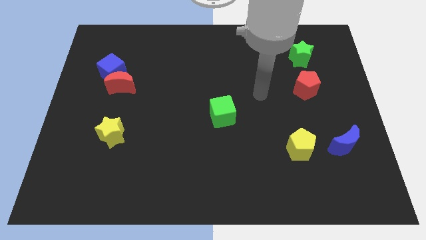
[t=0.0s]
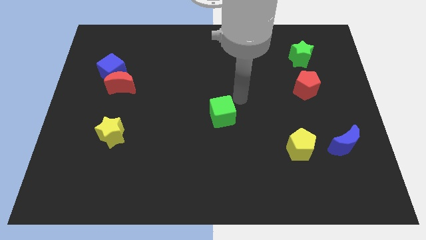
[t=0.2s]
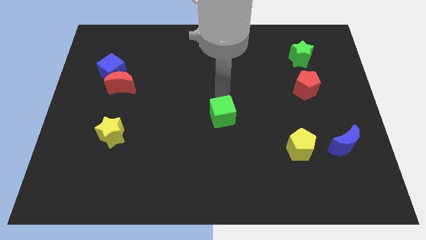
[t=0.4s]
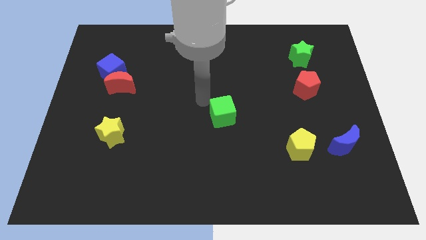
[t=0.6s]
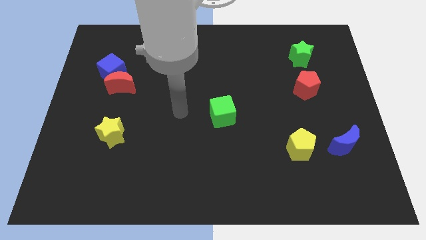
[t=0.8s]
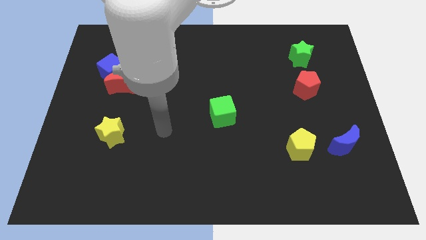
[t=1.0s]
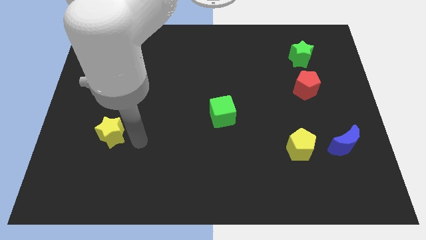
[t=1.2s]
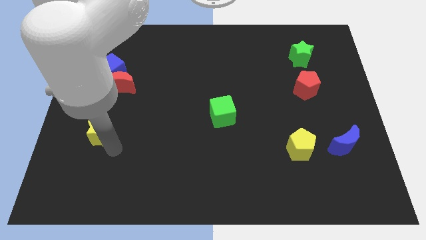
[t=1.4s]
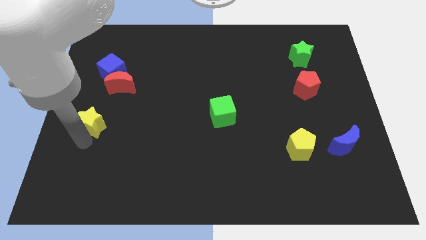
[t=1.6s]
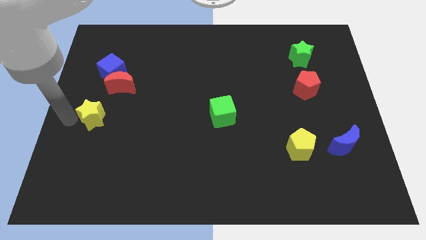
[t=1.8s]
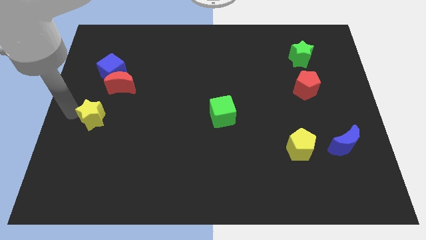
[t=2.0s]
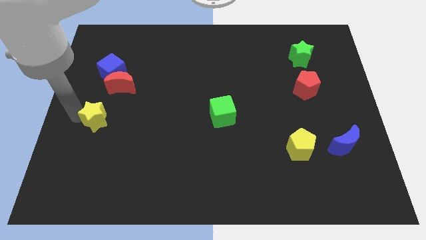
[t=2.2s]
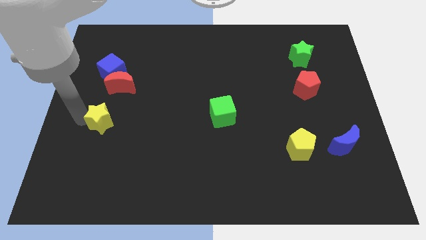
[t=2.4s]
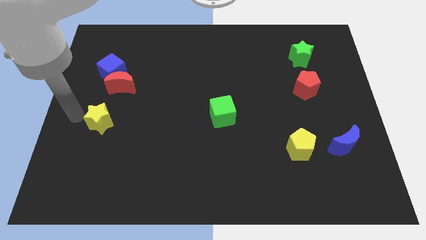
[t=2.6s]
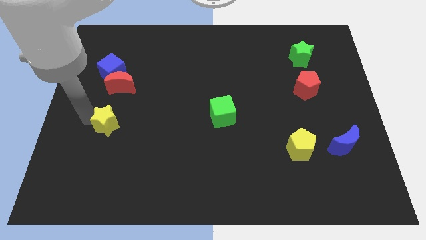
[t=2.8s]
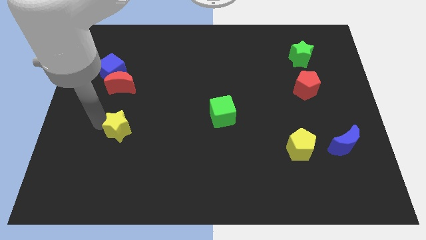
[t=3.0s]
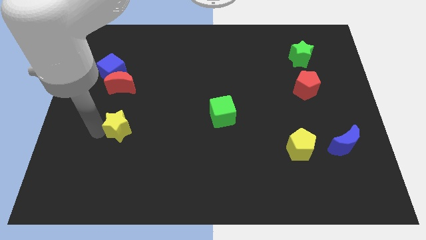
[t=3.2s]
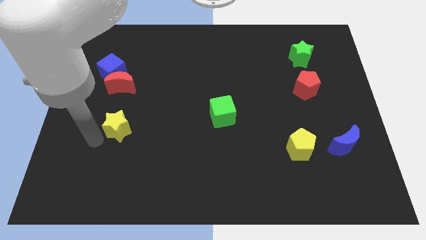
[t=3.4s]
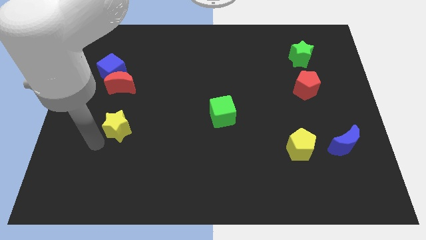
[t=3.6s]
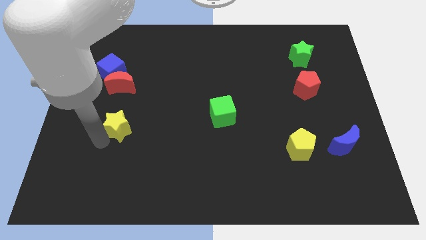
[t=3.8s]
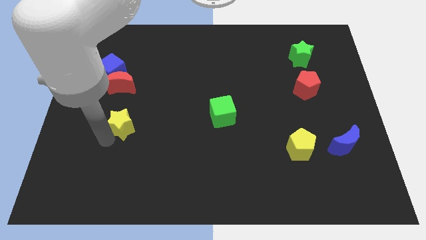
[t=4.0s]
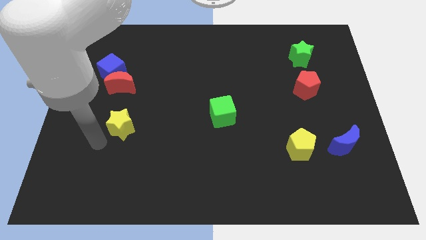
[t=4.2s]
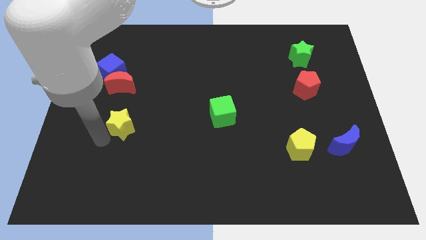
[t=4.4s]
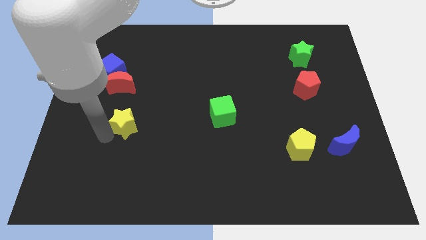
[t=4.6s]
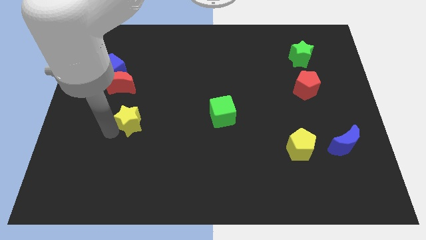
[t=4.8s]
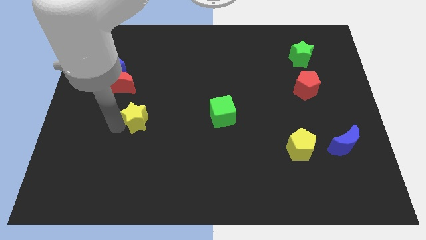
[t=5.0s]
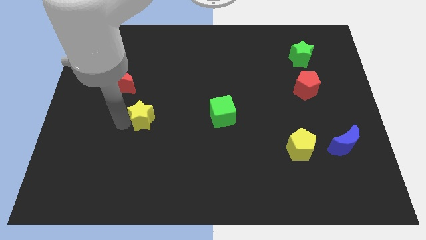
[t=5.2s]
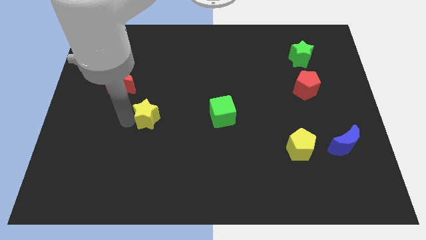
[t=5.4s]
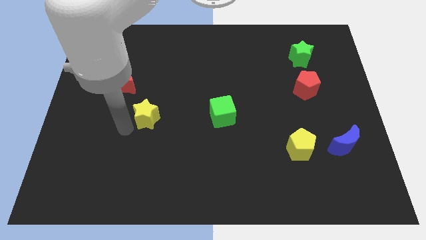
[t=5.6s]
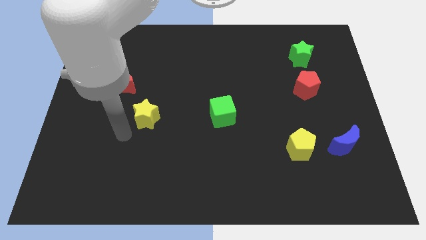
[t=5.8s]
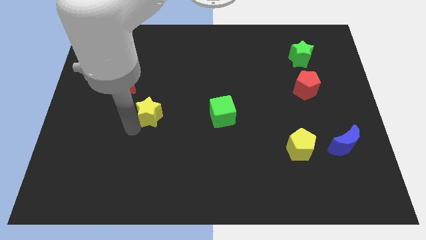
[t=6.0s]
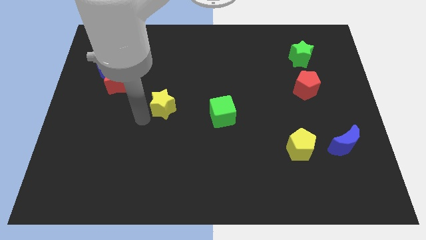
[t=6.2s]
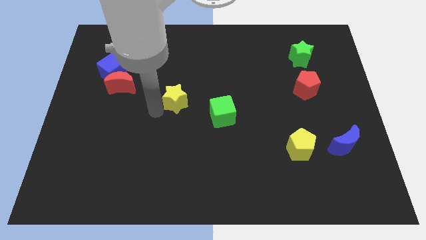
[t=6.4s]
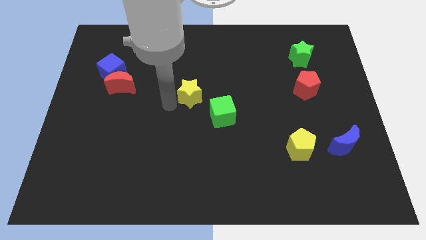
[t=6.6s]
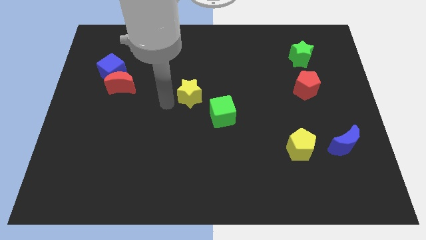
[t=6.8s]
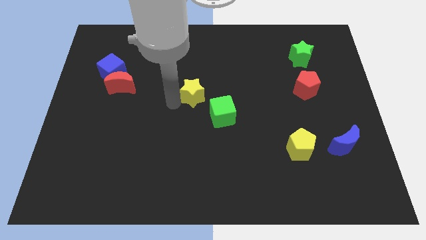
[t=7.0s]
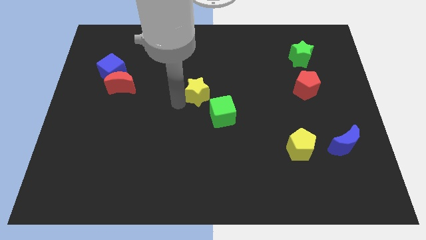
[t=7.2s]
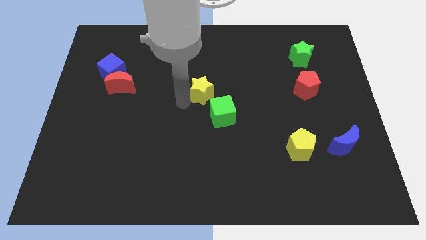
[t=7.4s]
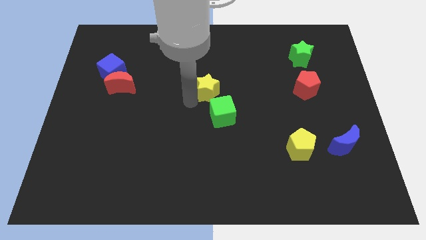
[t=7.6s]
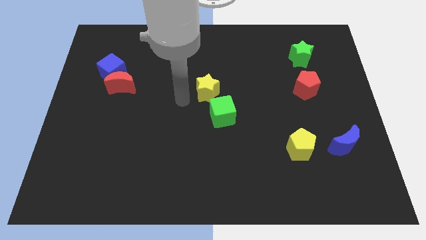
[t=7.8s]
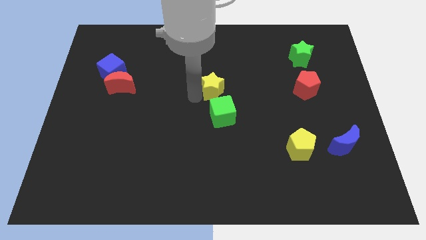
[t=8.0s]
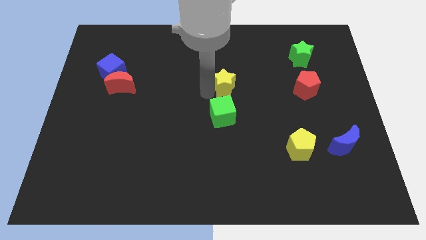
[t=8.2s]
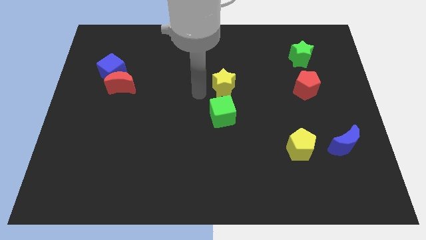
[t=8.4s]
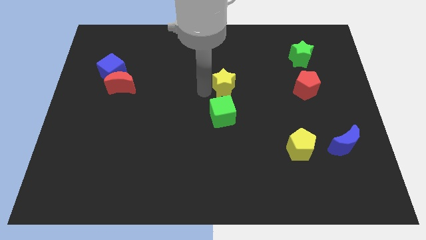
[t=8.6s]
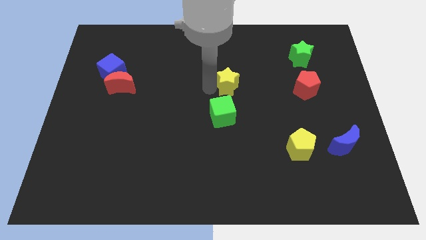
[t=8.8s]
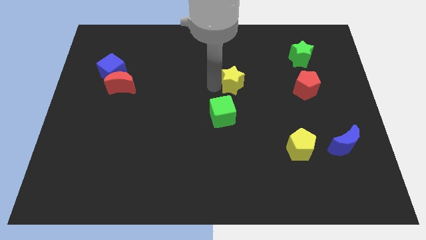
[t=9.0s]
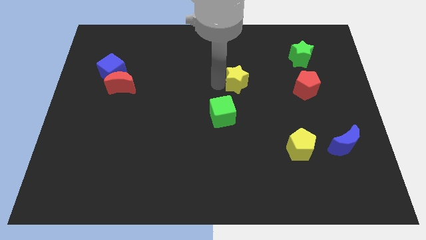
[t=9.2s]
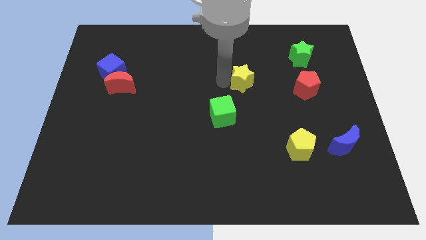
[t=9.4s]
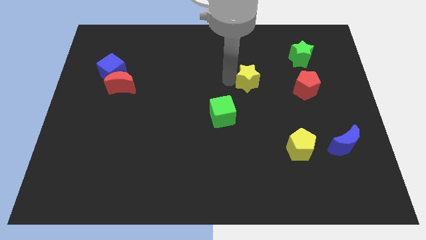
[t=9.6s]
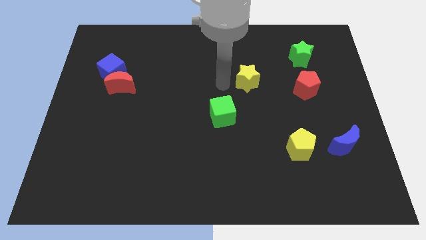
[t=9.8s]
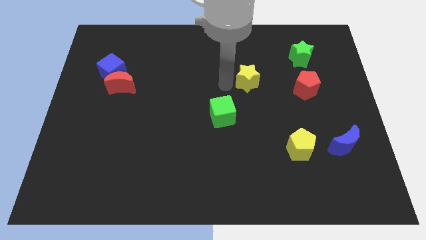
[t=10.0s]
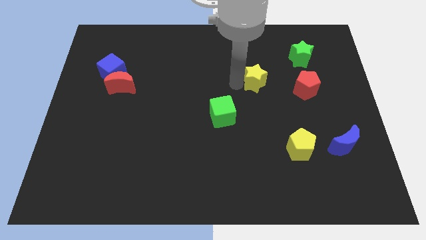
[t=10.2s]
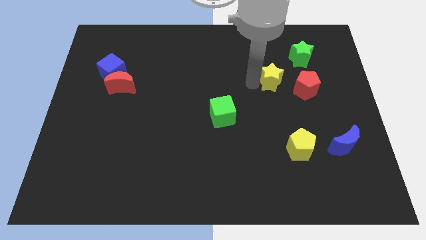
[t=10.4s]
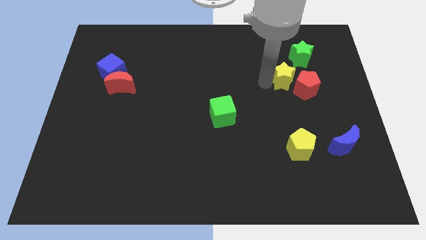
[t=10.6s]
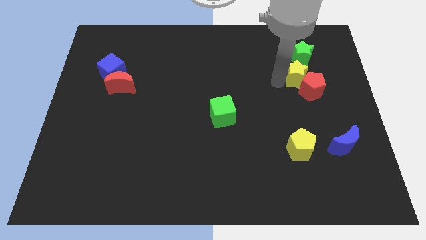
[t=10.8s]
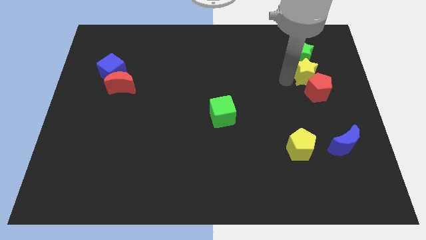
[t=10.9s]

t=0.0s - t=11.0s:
put the yellow star to the bottom right side of the green star

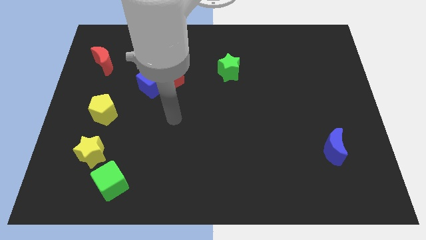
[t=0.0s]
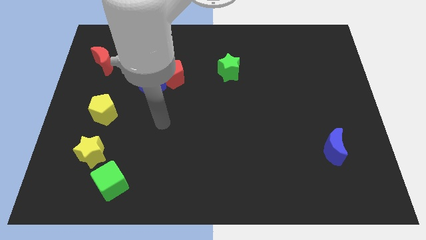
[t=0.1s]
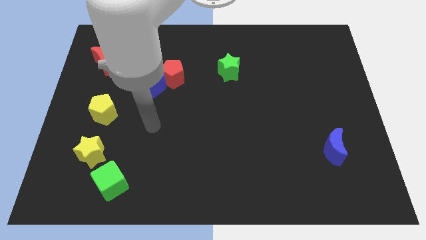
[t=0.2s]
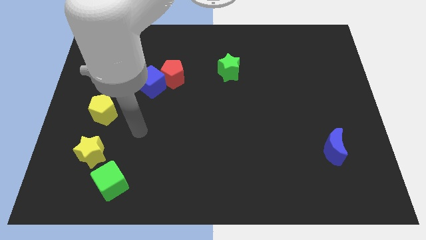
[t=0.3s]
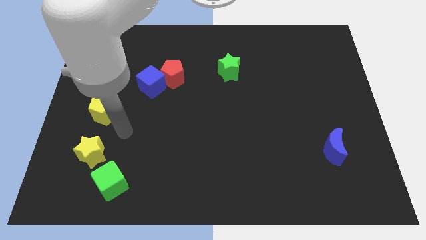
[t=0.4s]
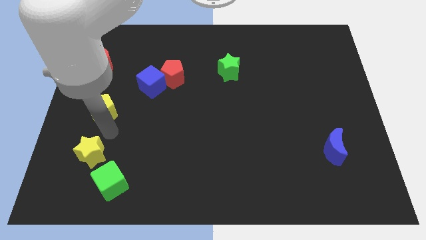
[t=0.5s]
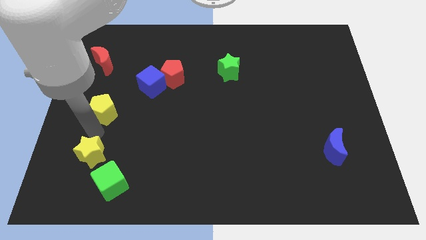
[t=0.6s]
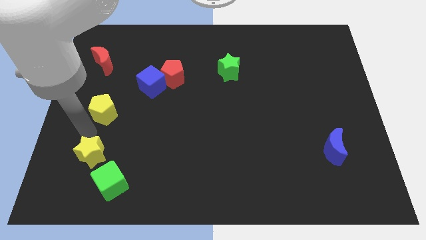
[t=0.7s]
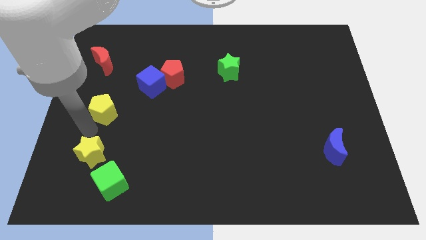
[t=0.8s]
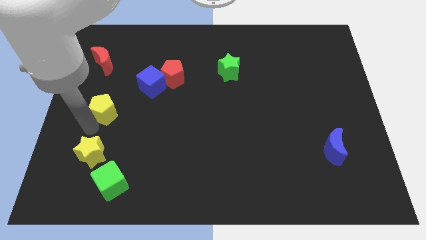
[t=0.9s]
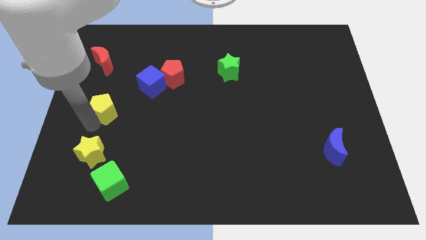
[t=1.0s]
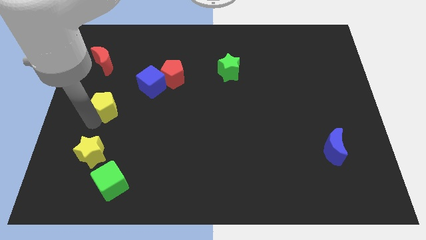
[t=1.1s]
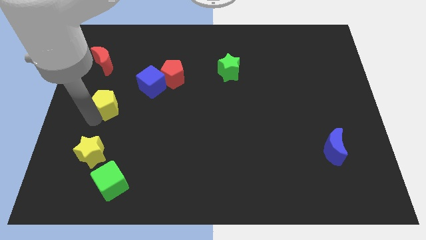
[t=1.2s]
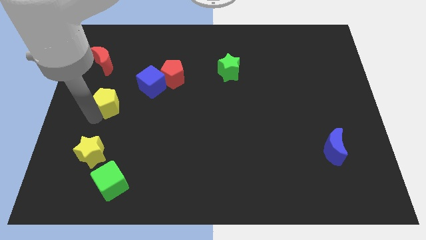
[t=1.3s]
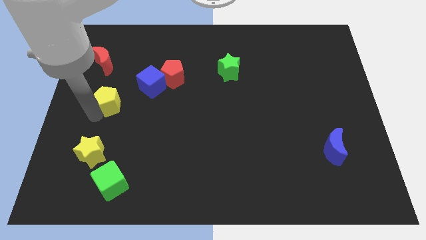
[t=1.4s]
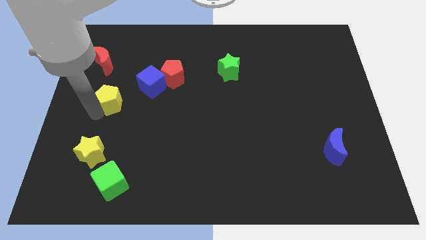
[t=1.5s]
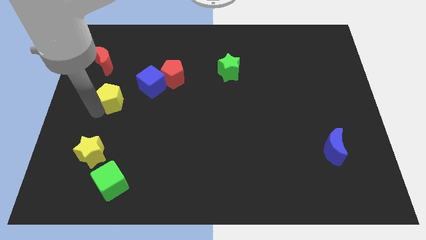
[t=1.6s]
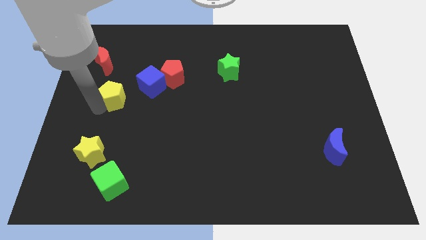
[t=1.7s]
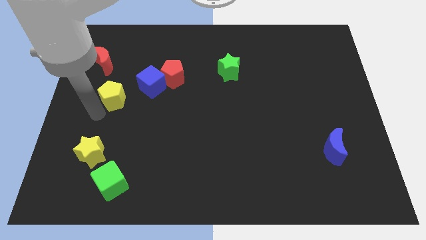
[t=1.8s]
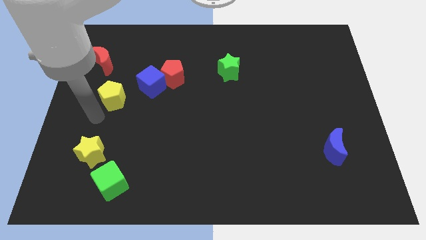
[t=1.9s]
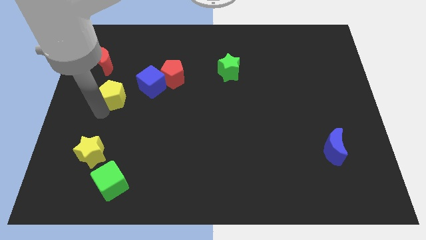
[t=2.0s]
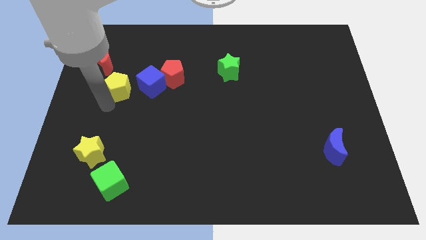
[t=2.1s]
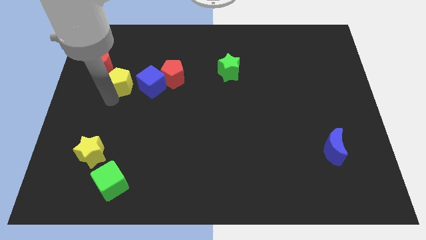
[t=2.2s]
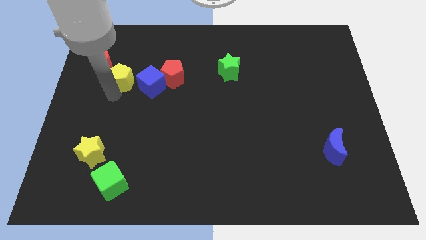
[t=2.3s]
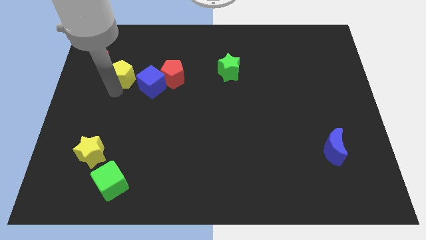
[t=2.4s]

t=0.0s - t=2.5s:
push the yellow pentagon right of the red moon
